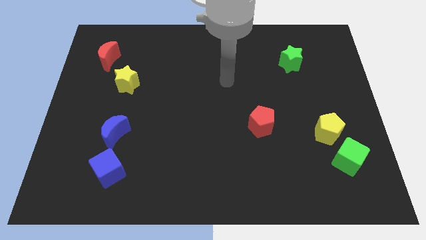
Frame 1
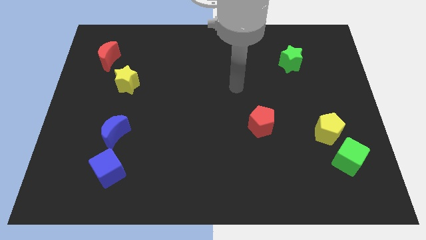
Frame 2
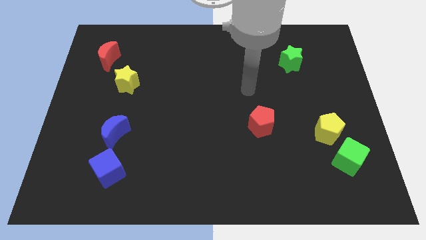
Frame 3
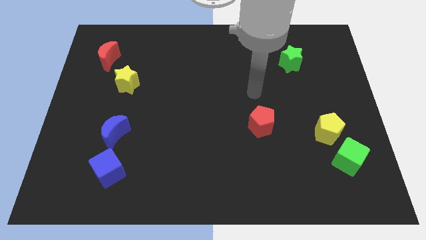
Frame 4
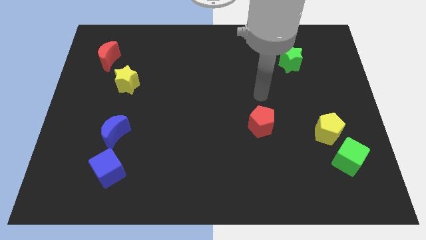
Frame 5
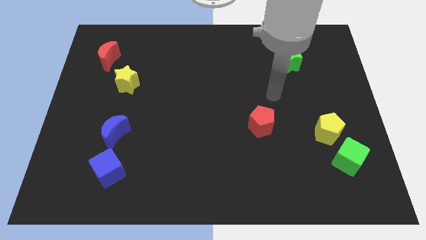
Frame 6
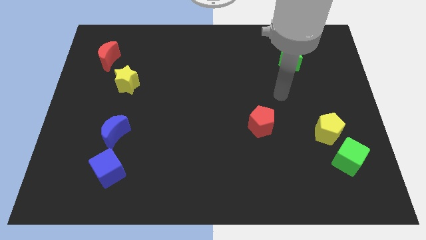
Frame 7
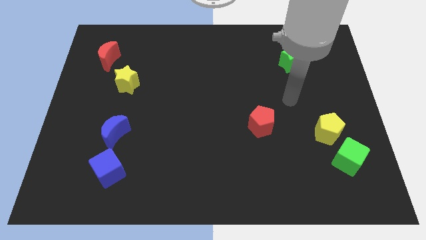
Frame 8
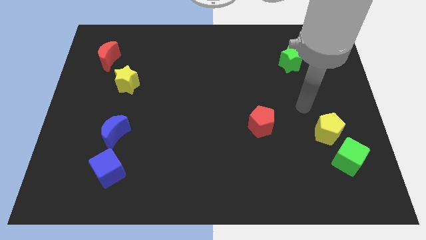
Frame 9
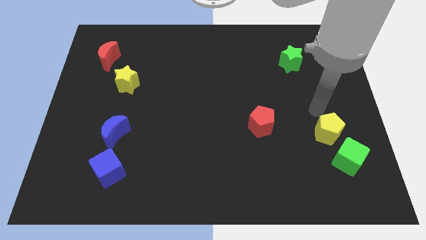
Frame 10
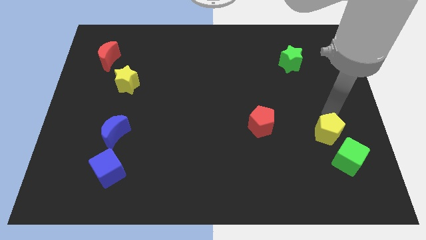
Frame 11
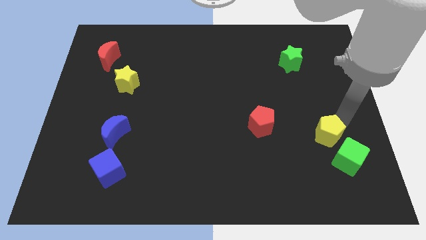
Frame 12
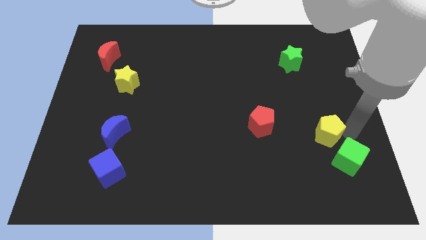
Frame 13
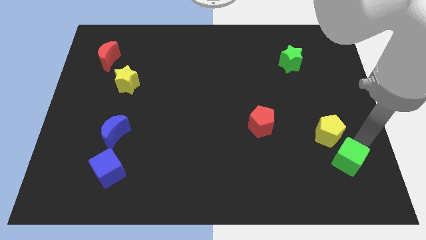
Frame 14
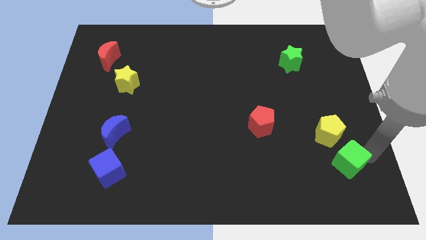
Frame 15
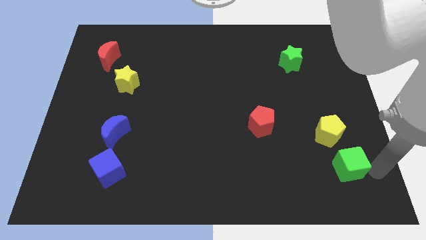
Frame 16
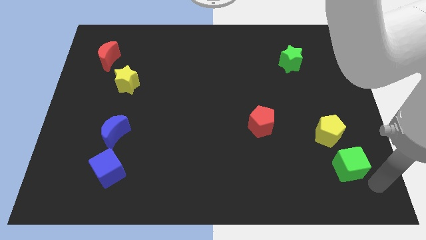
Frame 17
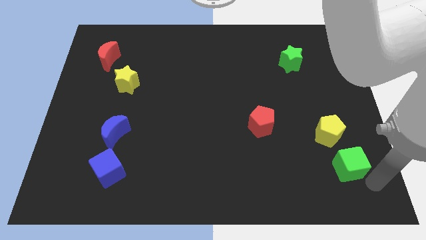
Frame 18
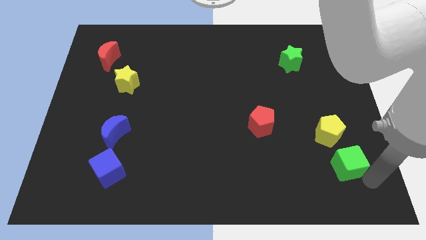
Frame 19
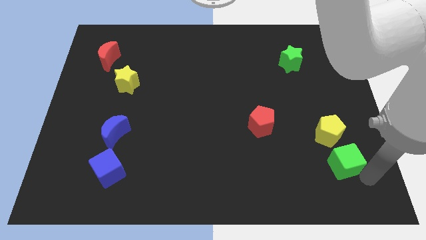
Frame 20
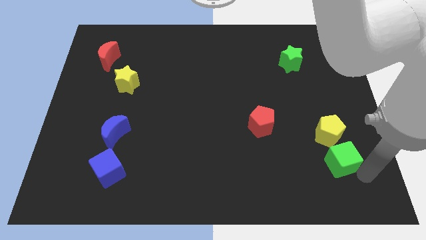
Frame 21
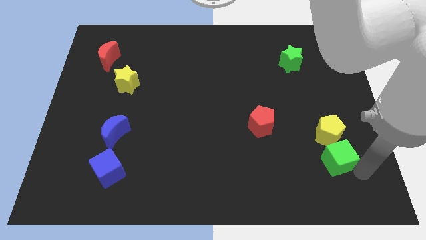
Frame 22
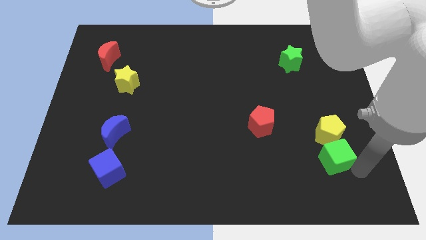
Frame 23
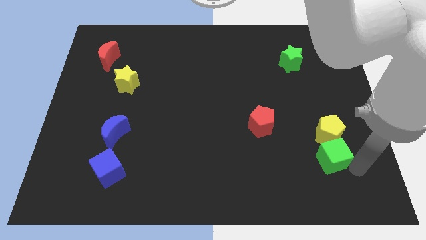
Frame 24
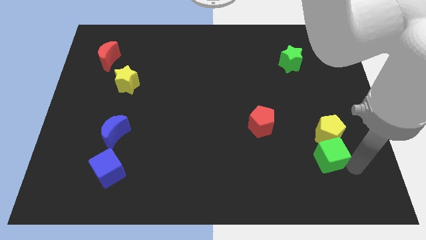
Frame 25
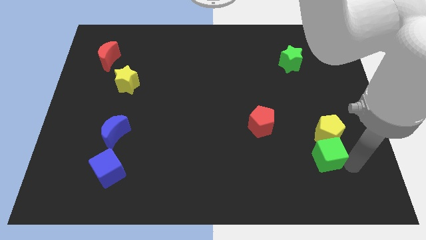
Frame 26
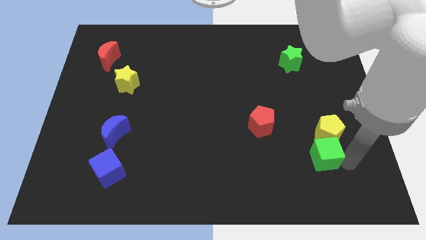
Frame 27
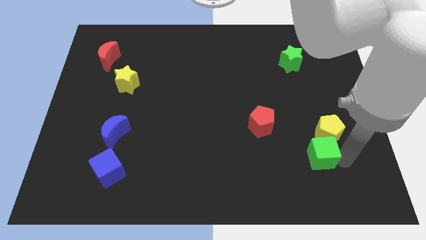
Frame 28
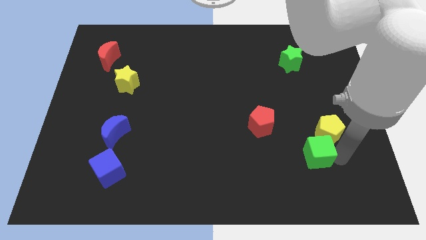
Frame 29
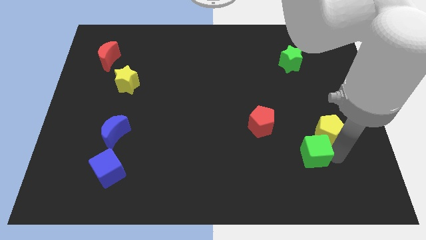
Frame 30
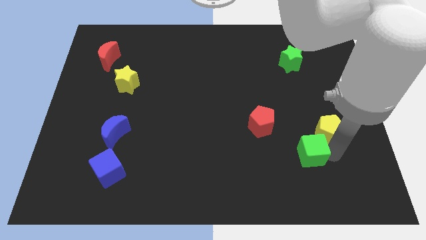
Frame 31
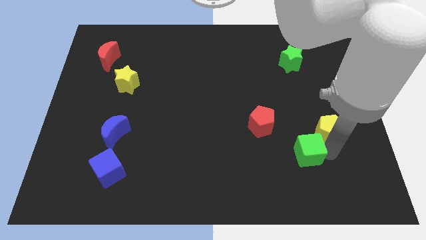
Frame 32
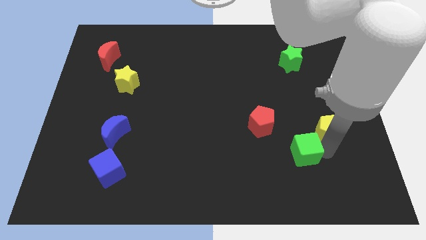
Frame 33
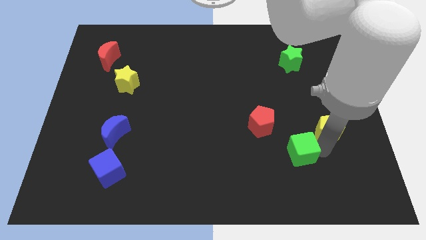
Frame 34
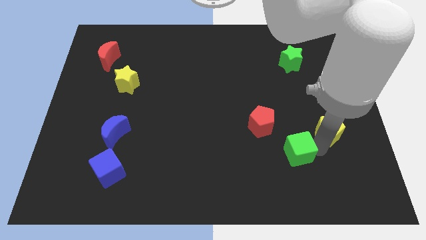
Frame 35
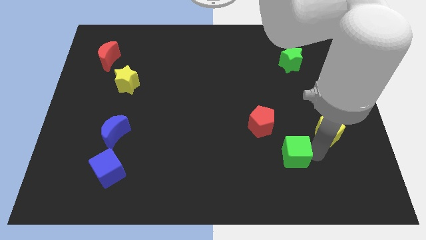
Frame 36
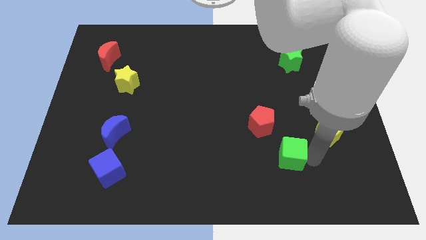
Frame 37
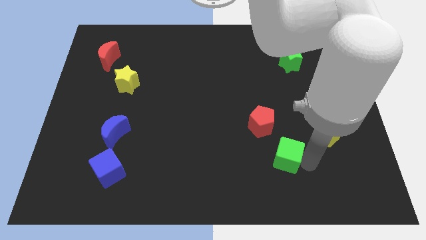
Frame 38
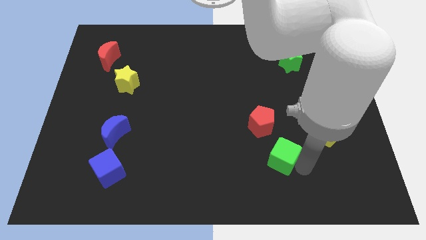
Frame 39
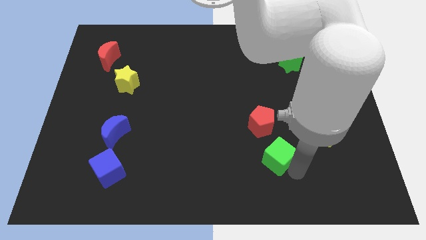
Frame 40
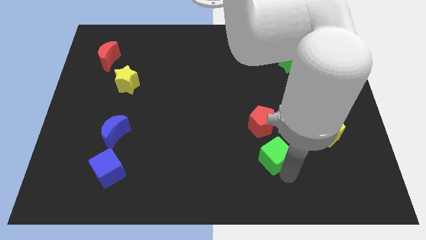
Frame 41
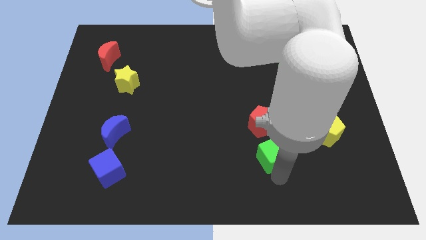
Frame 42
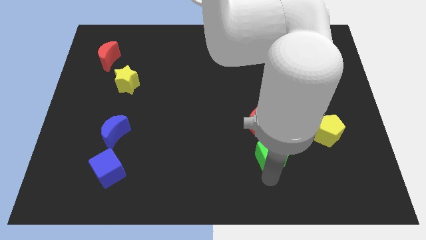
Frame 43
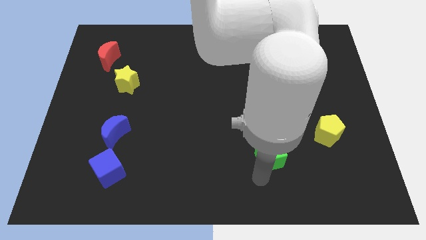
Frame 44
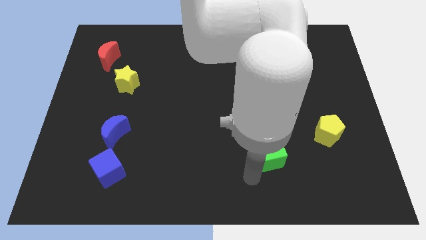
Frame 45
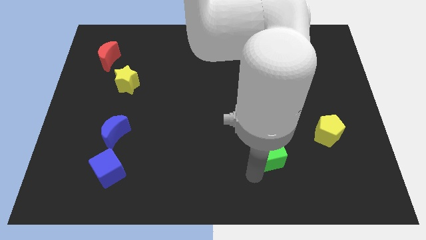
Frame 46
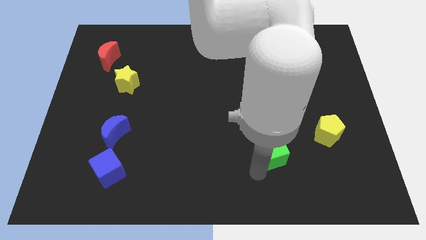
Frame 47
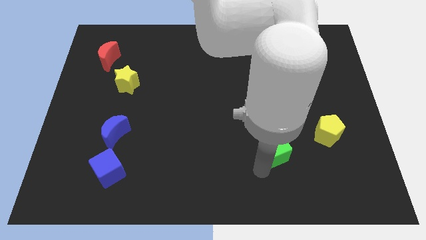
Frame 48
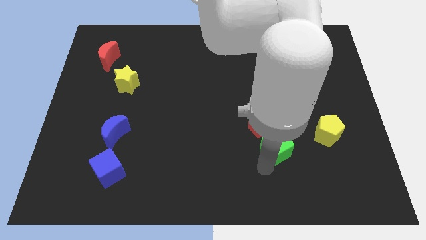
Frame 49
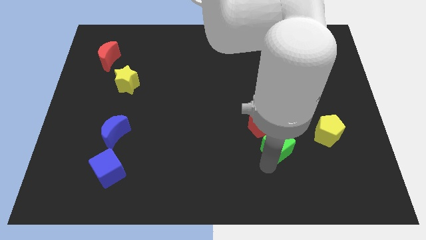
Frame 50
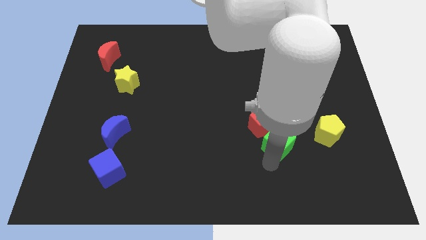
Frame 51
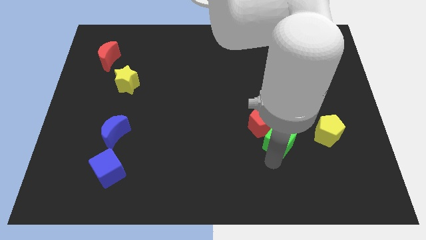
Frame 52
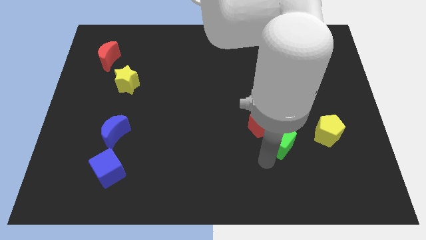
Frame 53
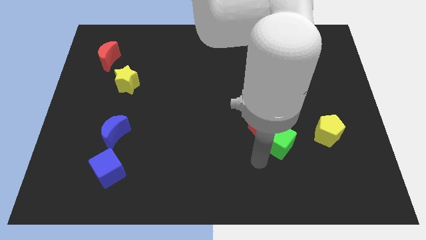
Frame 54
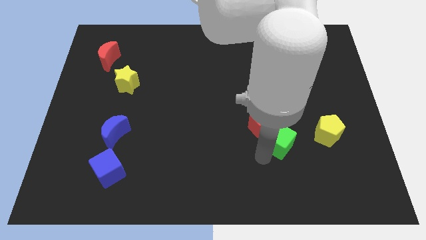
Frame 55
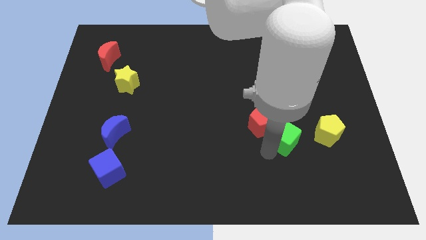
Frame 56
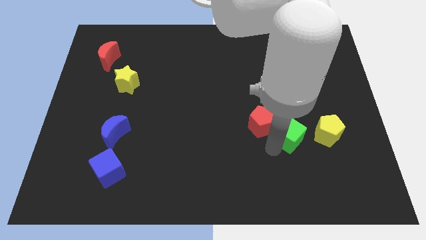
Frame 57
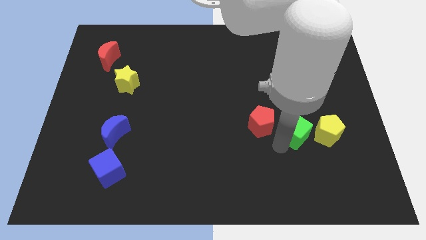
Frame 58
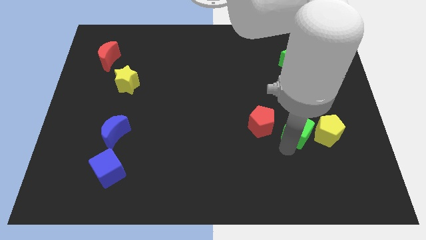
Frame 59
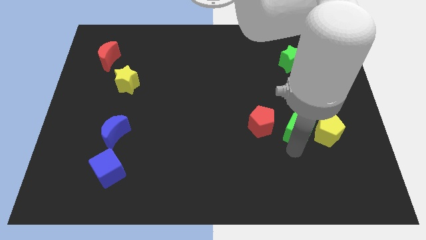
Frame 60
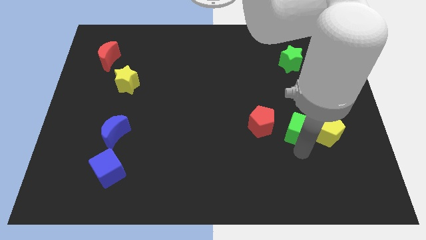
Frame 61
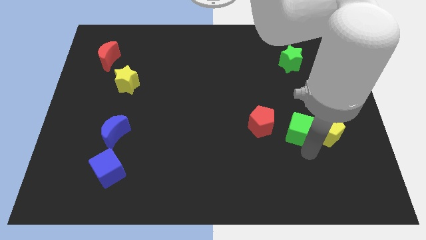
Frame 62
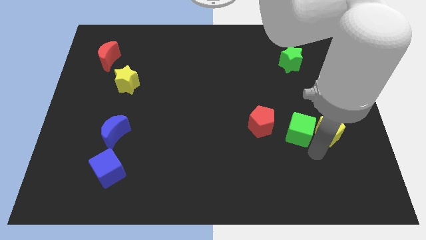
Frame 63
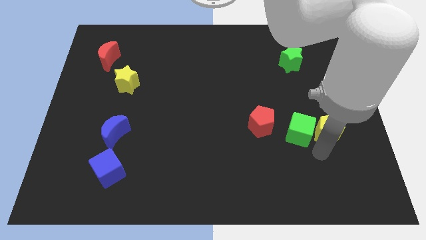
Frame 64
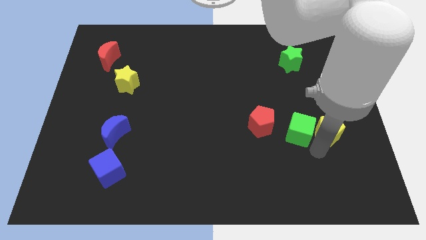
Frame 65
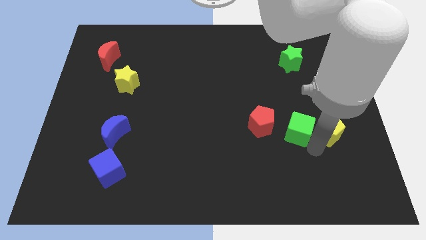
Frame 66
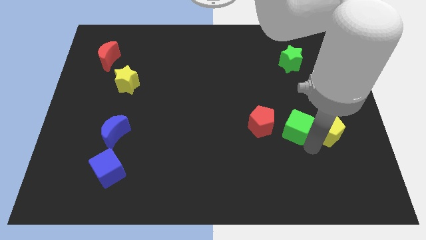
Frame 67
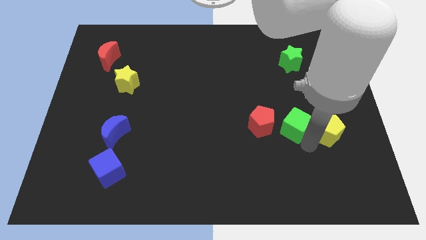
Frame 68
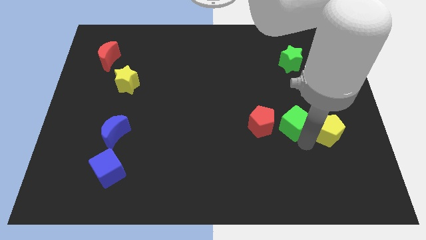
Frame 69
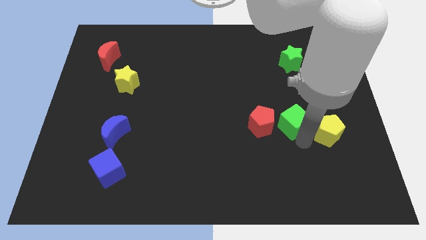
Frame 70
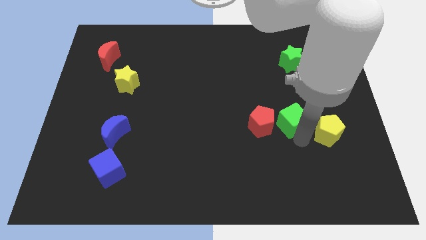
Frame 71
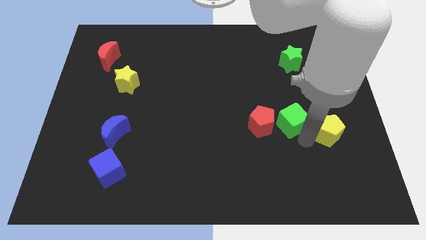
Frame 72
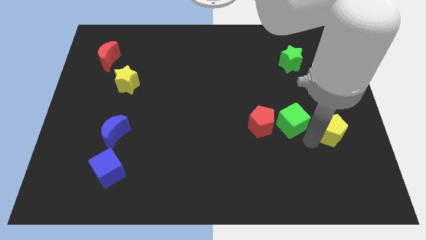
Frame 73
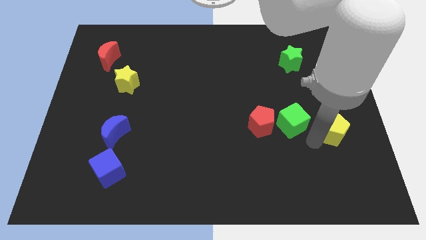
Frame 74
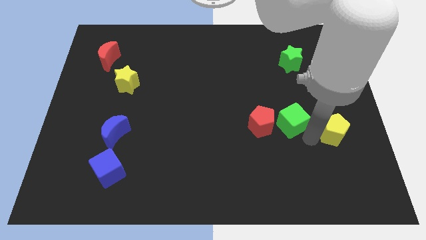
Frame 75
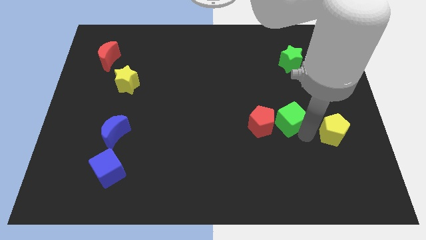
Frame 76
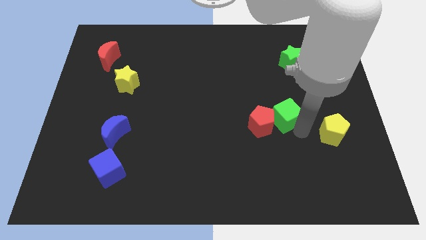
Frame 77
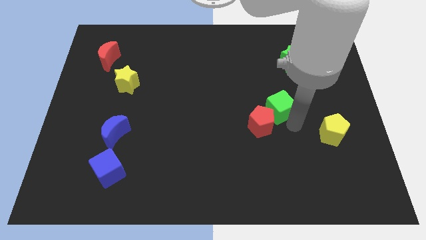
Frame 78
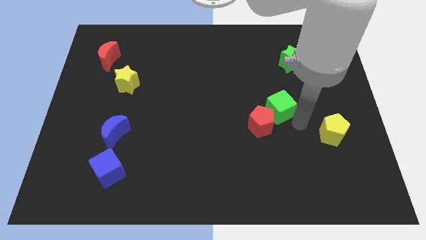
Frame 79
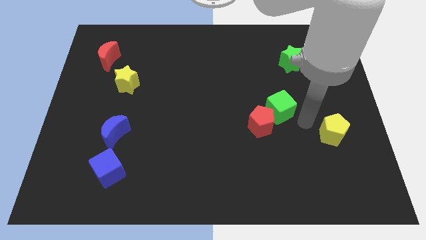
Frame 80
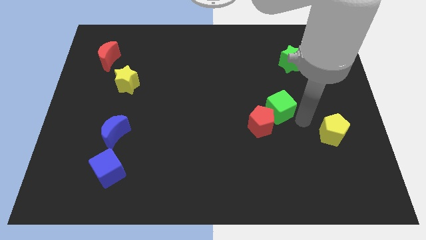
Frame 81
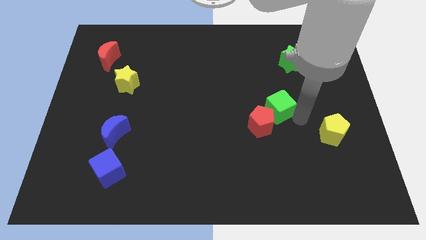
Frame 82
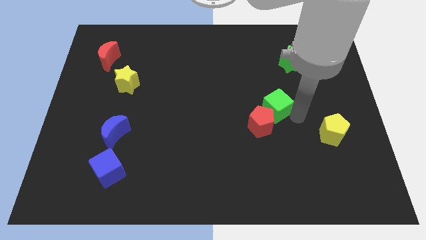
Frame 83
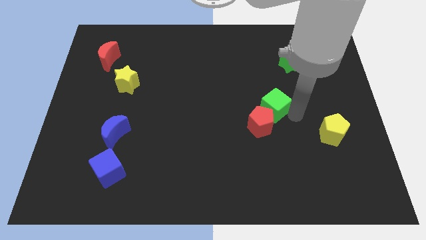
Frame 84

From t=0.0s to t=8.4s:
push the green cube up and then left
